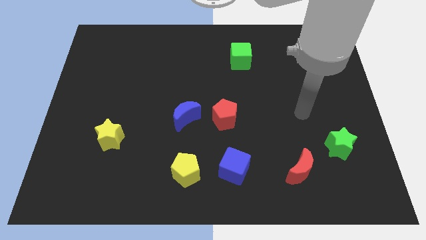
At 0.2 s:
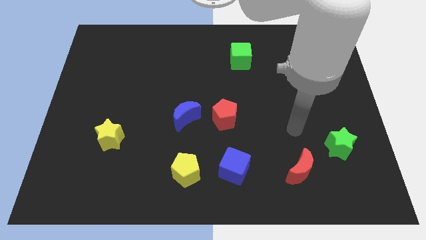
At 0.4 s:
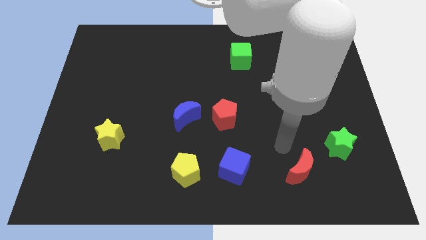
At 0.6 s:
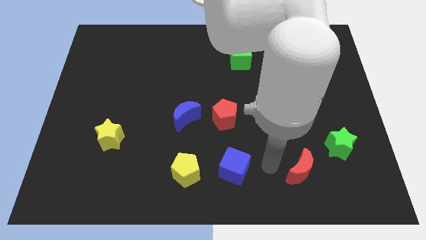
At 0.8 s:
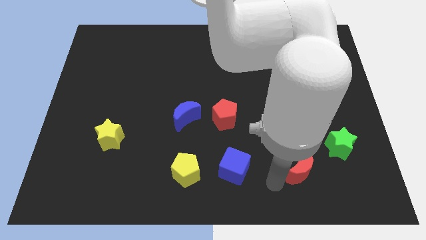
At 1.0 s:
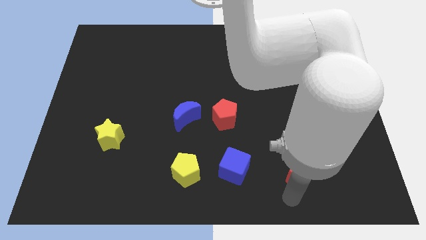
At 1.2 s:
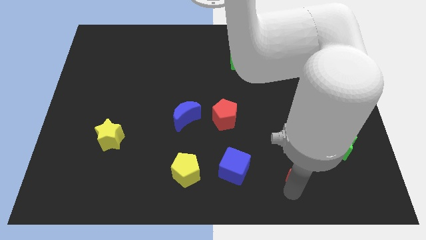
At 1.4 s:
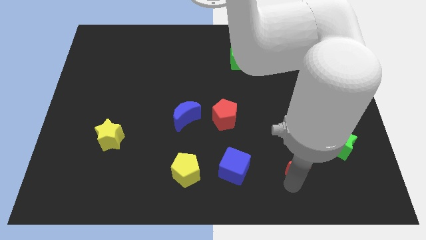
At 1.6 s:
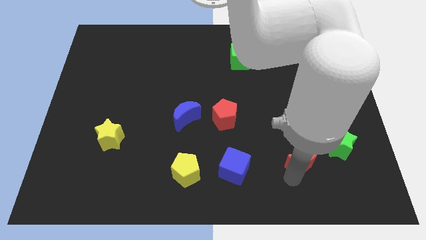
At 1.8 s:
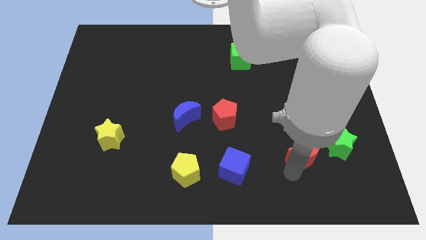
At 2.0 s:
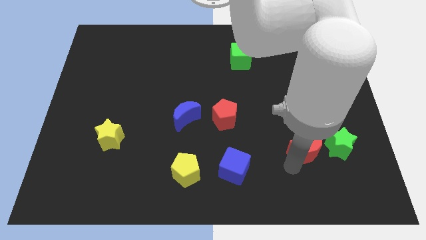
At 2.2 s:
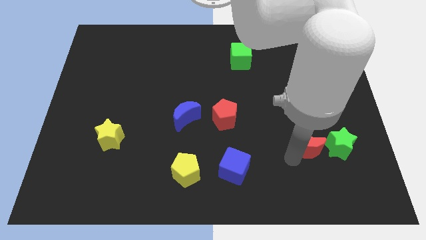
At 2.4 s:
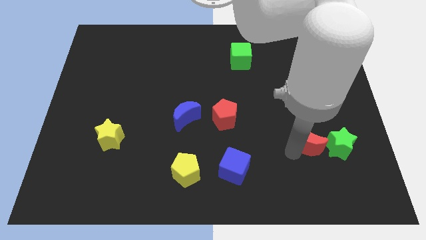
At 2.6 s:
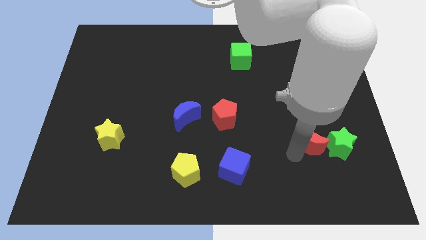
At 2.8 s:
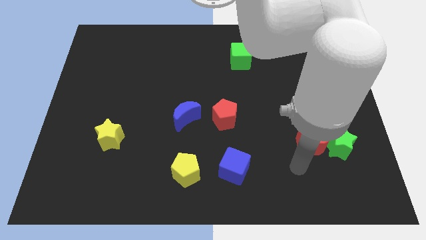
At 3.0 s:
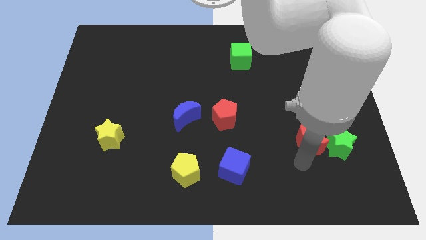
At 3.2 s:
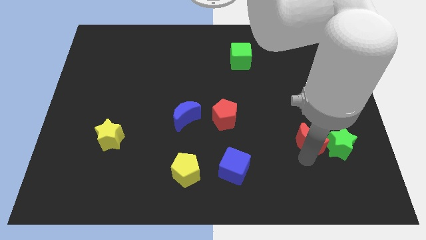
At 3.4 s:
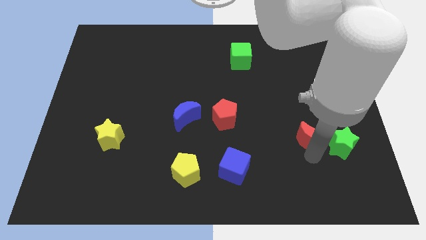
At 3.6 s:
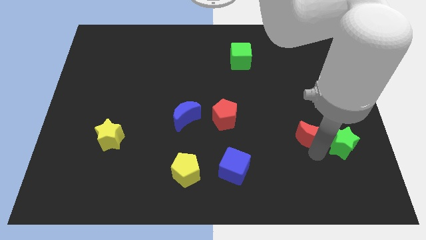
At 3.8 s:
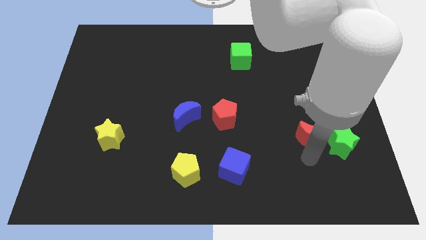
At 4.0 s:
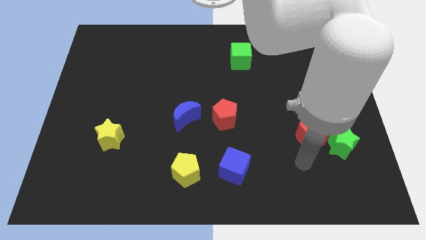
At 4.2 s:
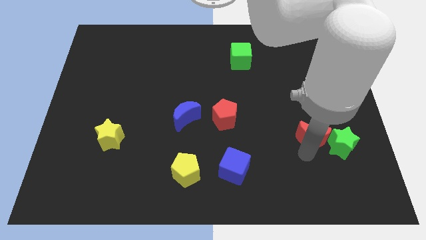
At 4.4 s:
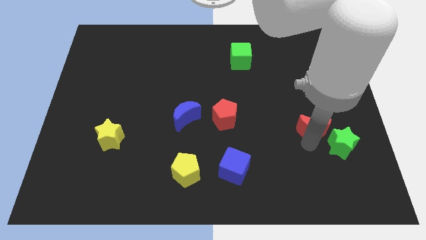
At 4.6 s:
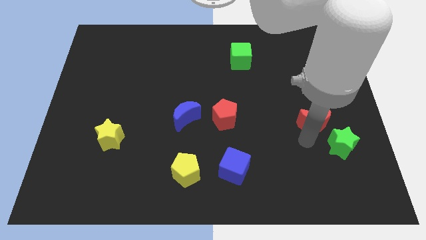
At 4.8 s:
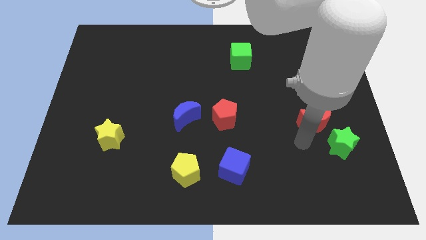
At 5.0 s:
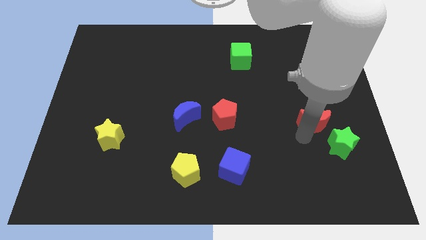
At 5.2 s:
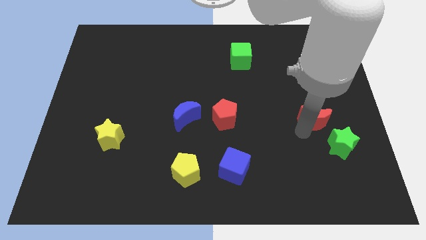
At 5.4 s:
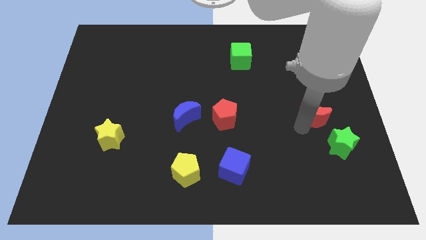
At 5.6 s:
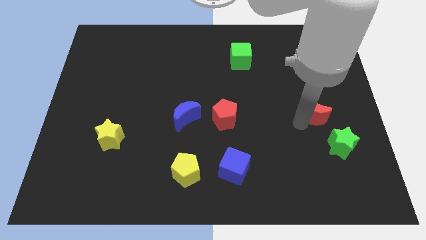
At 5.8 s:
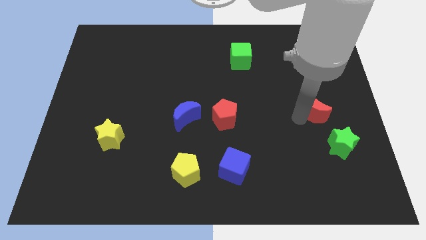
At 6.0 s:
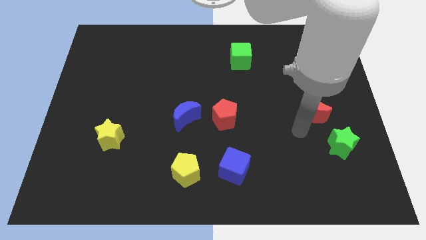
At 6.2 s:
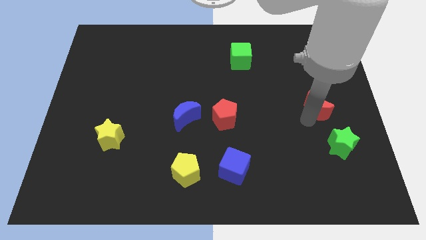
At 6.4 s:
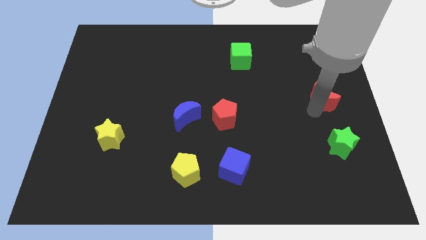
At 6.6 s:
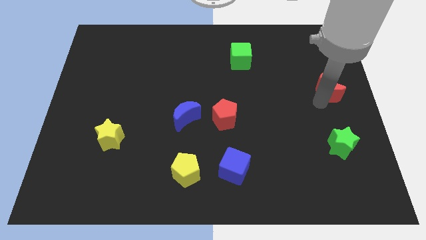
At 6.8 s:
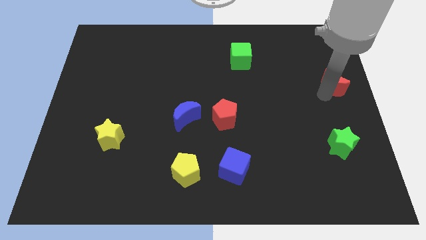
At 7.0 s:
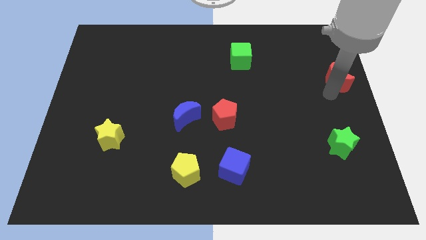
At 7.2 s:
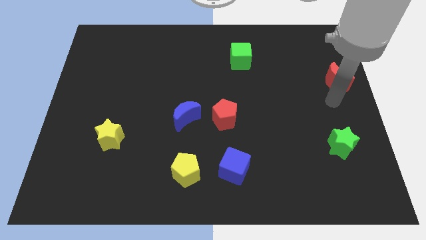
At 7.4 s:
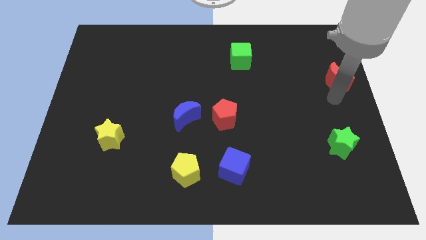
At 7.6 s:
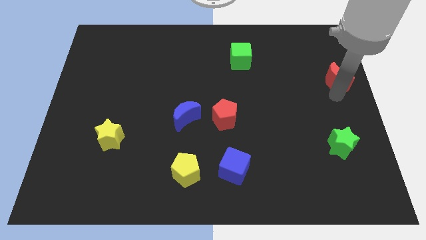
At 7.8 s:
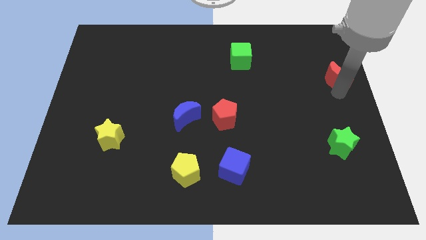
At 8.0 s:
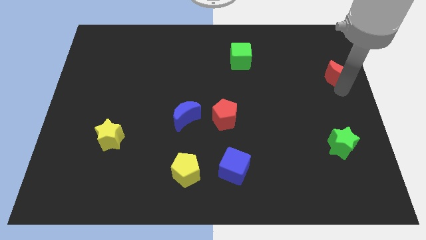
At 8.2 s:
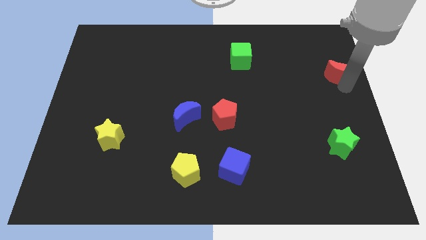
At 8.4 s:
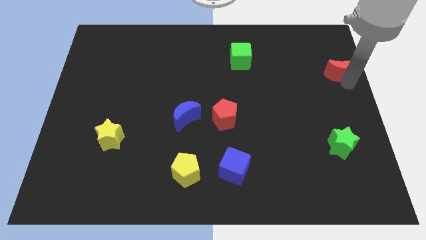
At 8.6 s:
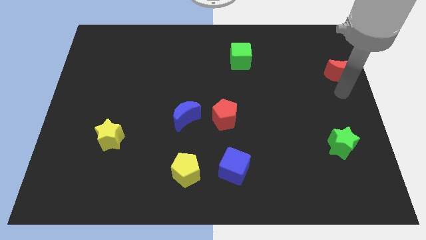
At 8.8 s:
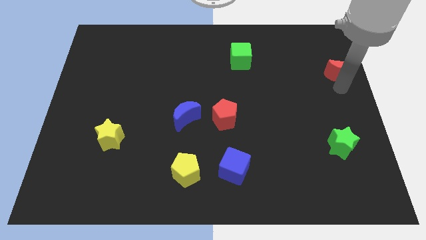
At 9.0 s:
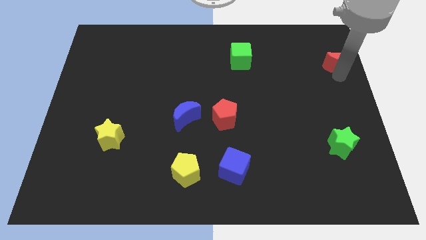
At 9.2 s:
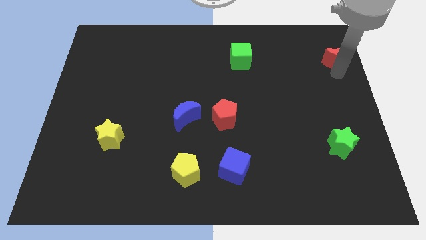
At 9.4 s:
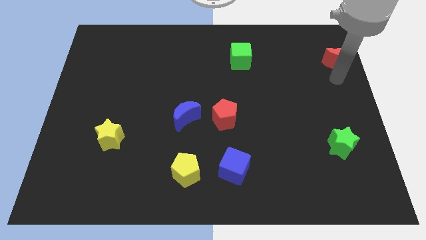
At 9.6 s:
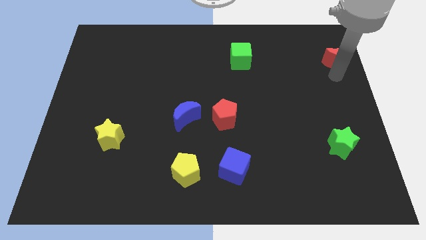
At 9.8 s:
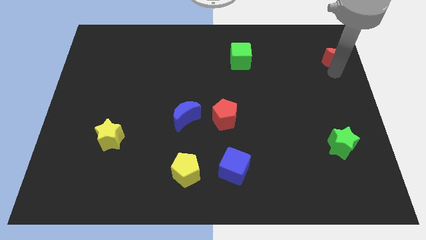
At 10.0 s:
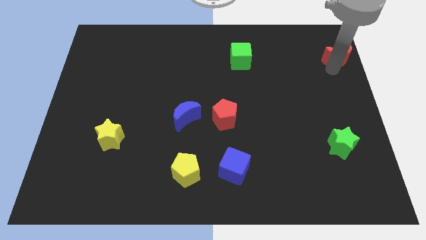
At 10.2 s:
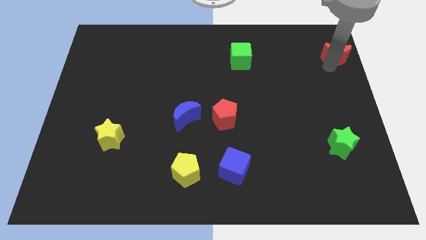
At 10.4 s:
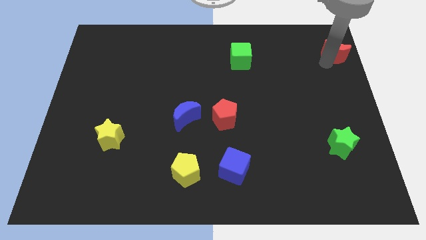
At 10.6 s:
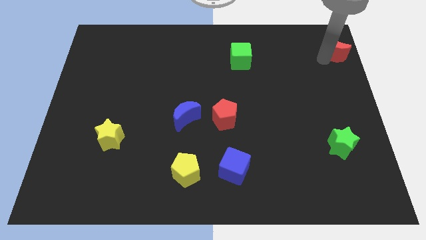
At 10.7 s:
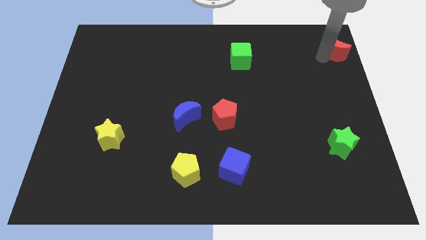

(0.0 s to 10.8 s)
push the red moon to the upper right corner

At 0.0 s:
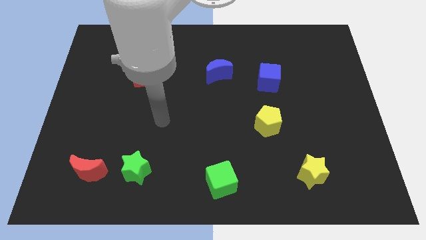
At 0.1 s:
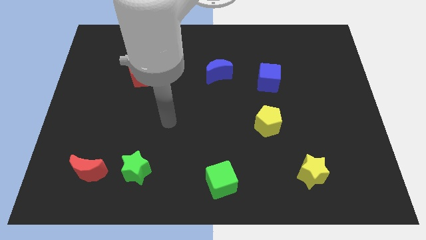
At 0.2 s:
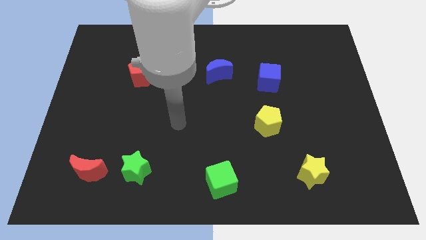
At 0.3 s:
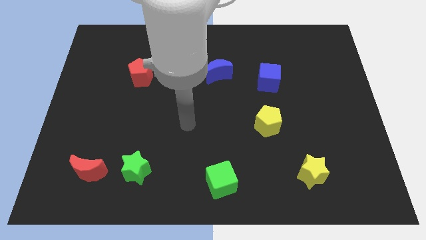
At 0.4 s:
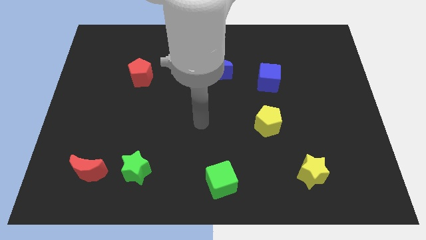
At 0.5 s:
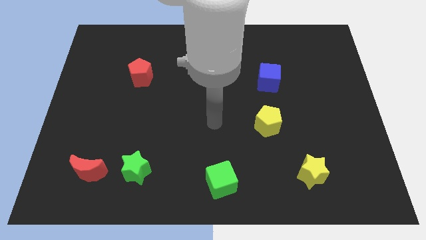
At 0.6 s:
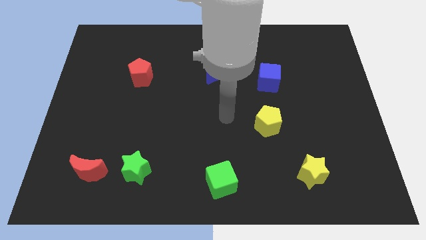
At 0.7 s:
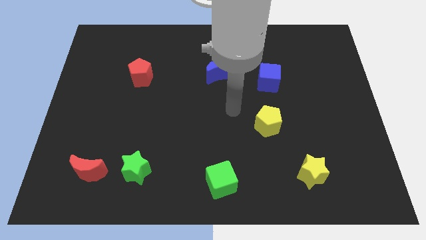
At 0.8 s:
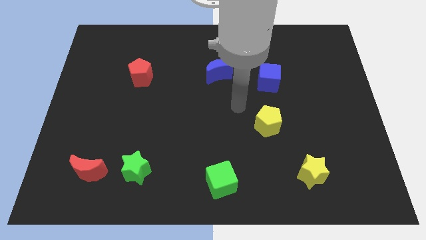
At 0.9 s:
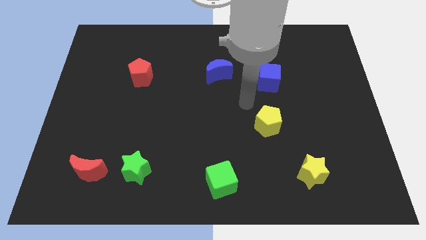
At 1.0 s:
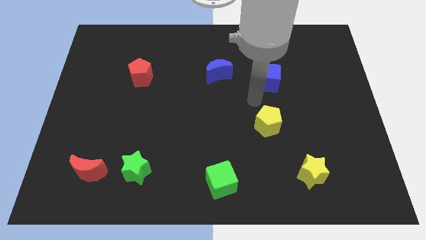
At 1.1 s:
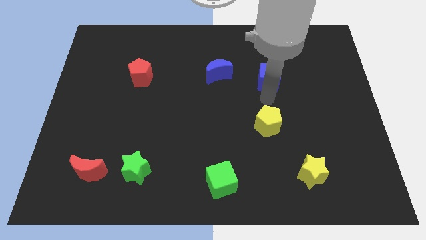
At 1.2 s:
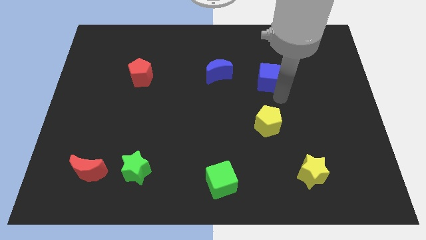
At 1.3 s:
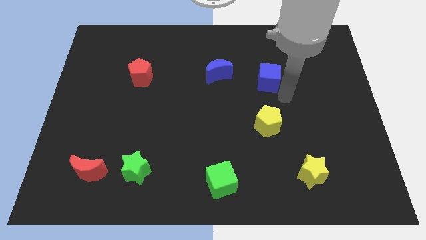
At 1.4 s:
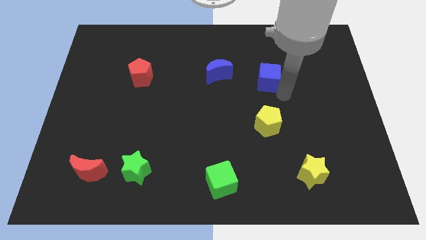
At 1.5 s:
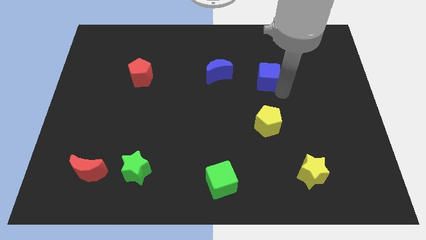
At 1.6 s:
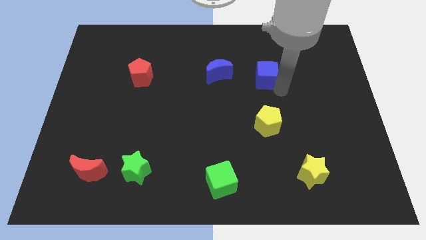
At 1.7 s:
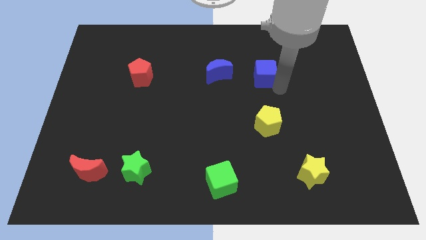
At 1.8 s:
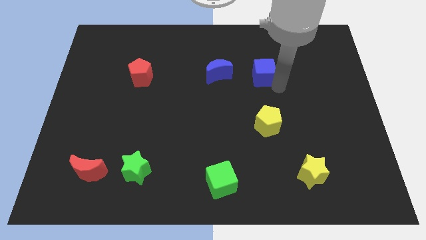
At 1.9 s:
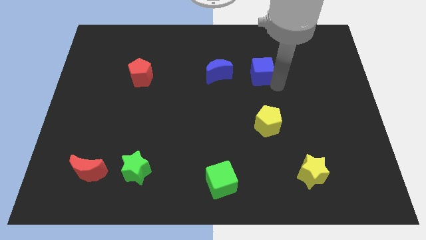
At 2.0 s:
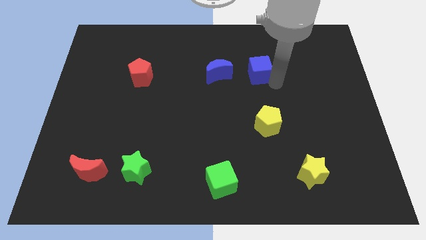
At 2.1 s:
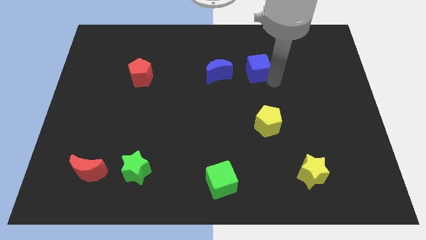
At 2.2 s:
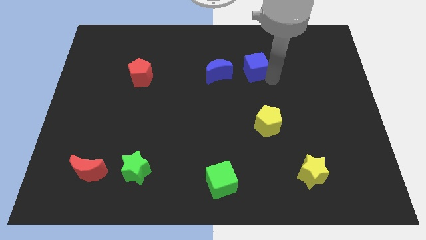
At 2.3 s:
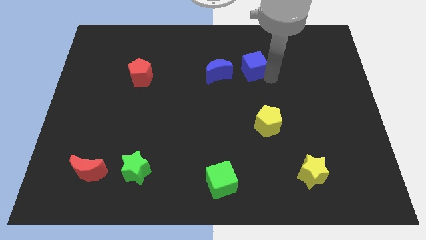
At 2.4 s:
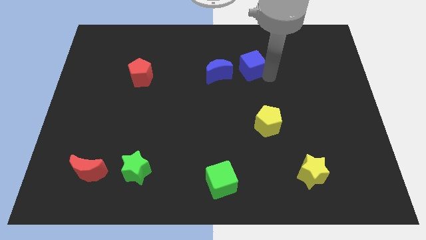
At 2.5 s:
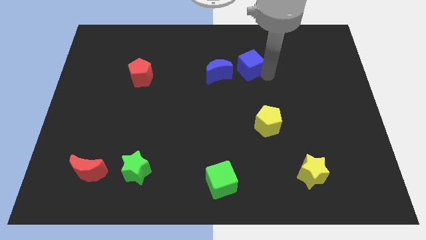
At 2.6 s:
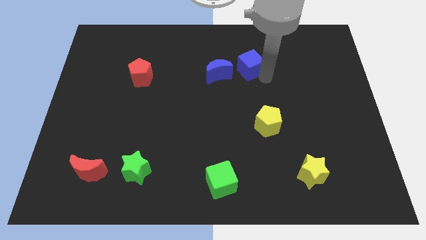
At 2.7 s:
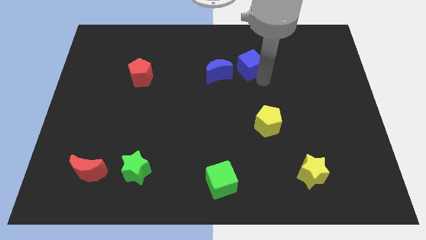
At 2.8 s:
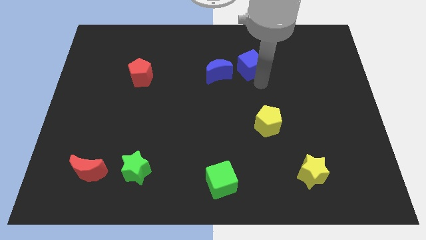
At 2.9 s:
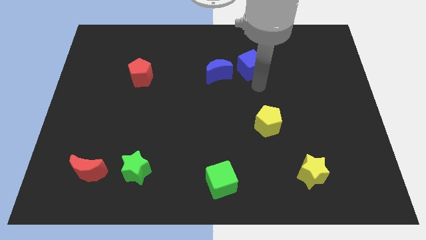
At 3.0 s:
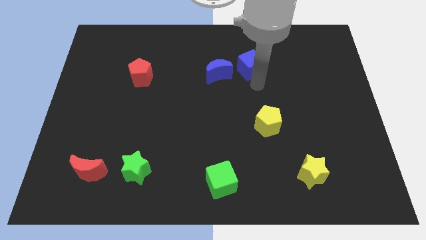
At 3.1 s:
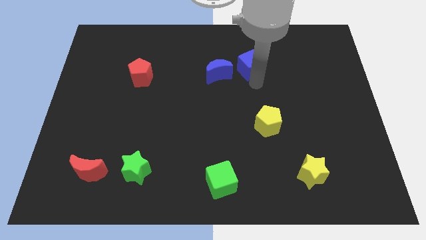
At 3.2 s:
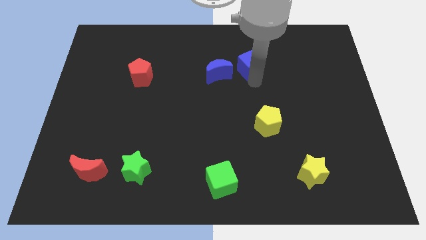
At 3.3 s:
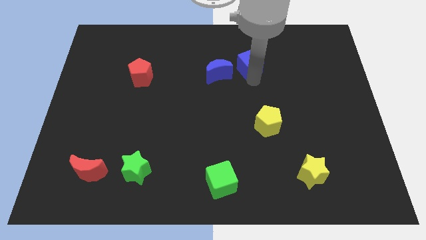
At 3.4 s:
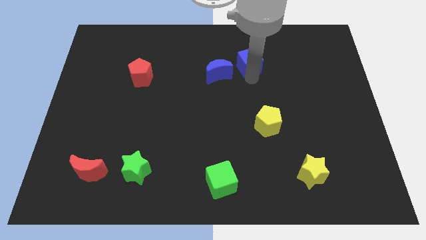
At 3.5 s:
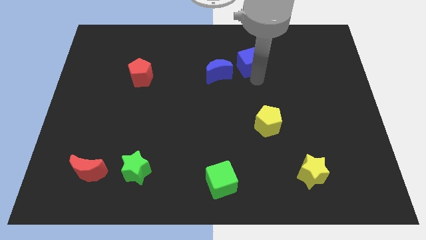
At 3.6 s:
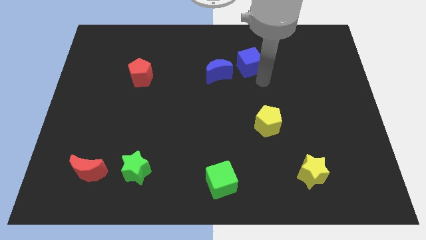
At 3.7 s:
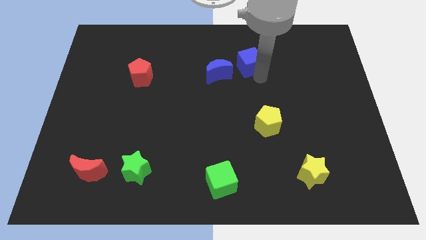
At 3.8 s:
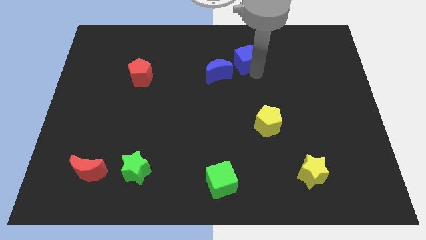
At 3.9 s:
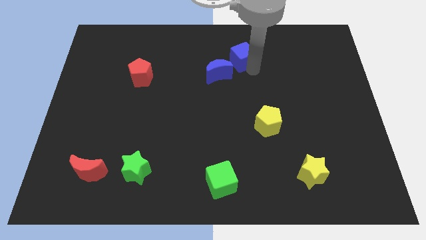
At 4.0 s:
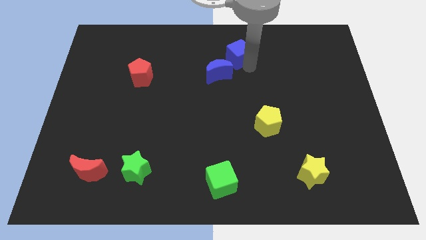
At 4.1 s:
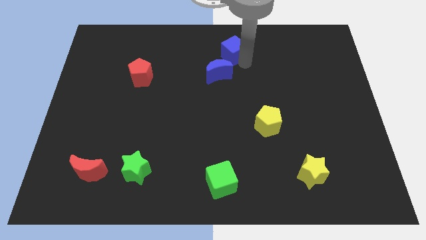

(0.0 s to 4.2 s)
move the blue cube to the top side
